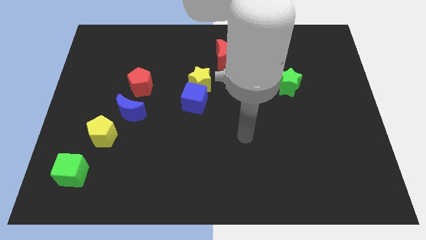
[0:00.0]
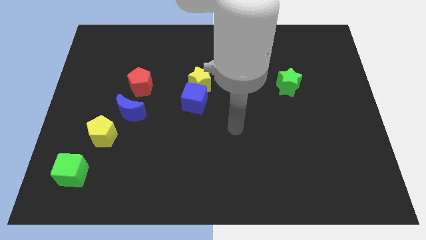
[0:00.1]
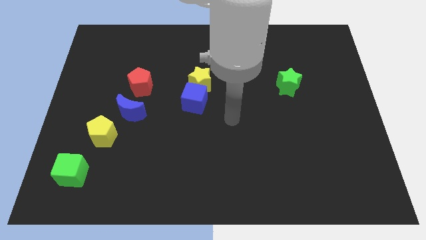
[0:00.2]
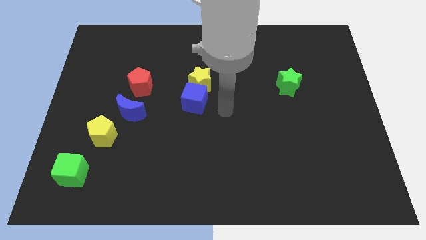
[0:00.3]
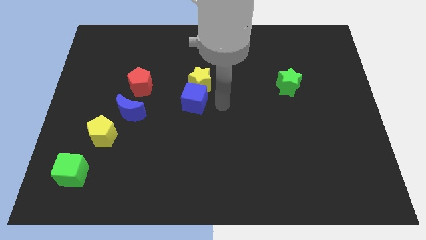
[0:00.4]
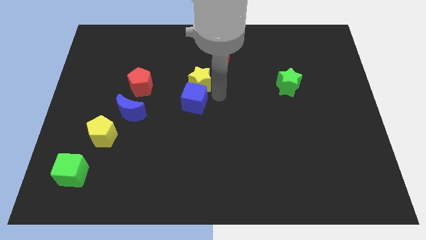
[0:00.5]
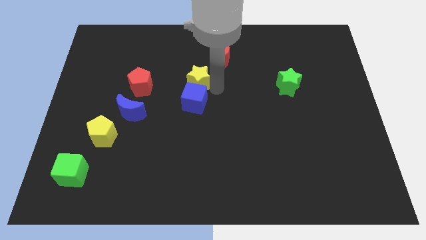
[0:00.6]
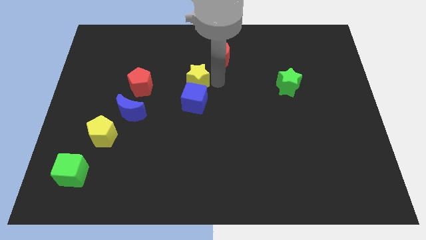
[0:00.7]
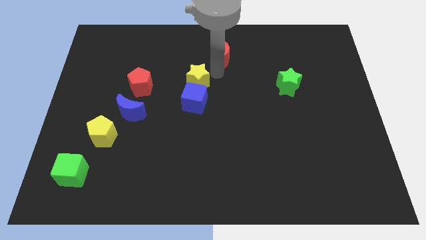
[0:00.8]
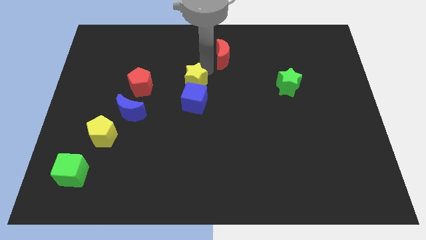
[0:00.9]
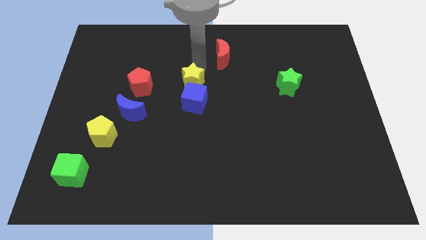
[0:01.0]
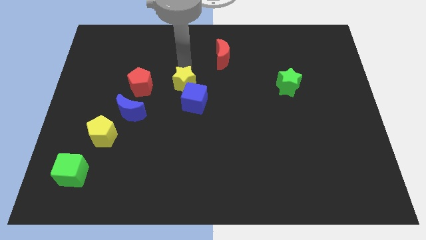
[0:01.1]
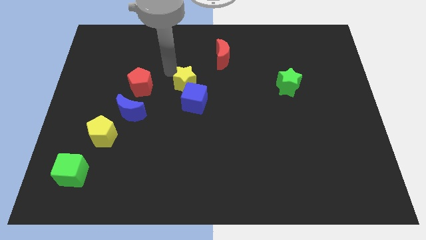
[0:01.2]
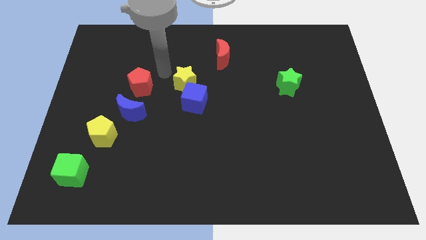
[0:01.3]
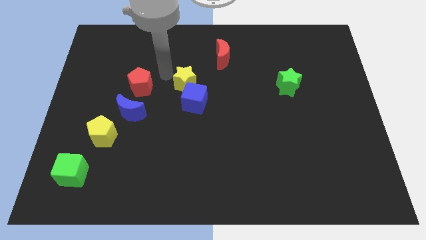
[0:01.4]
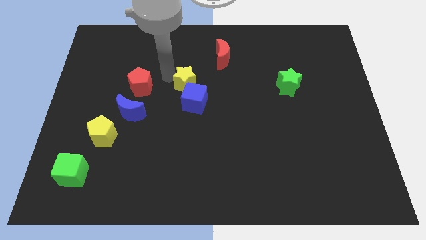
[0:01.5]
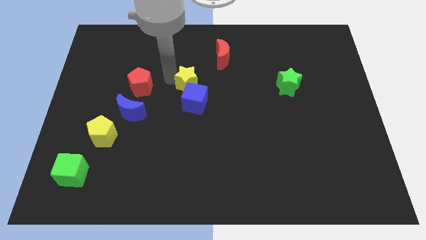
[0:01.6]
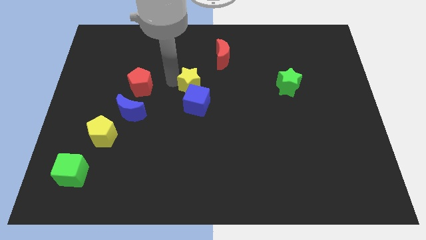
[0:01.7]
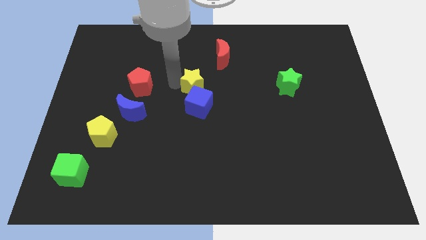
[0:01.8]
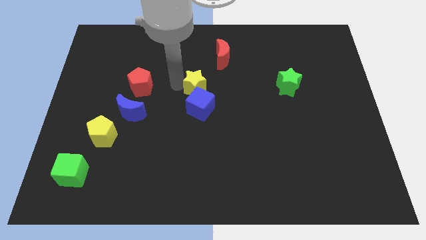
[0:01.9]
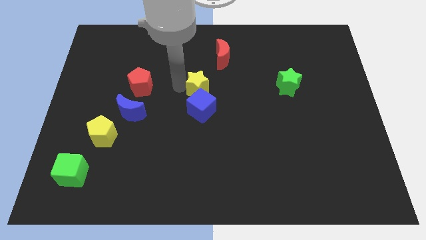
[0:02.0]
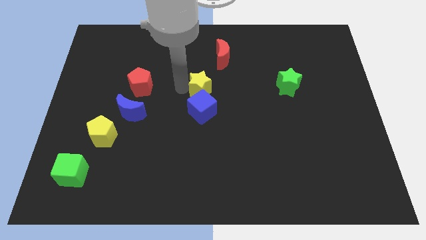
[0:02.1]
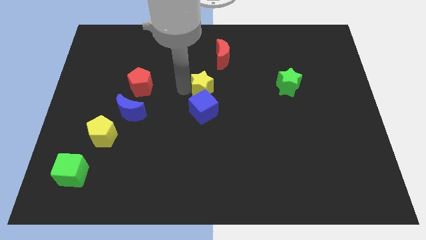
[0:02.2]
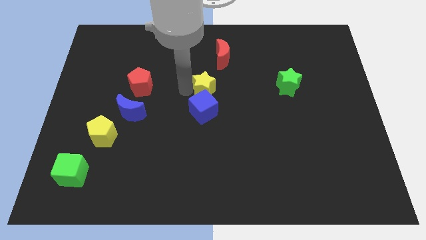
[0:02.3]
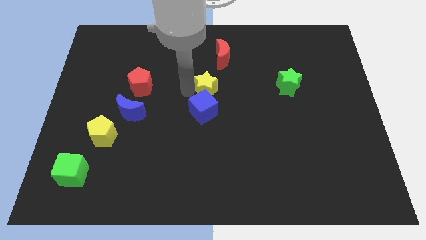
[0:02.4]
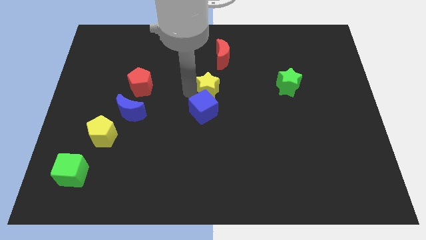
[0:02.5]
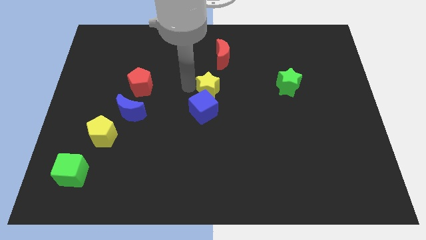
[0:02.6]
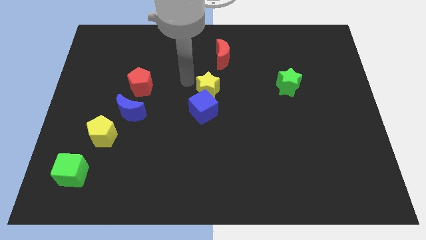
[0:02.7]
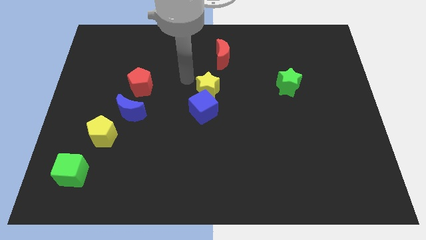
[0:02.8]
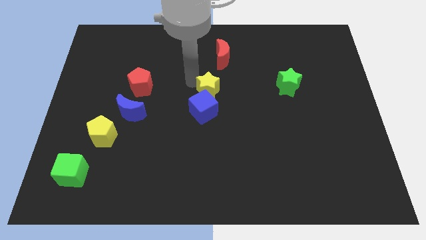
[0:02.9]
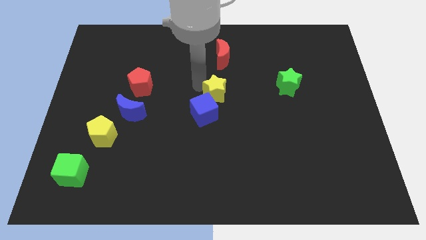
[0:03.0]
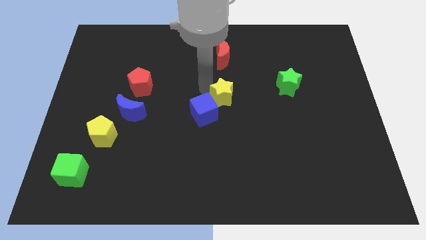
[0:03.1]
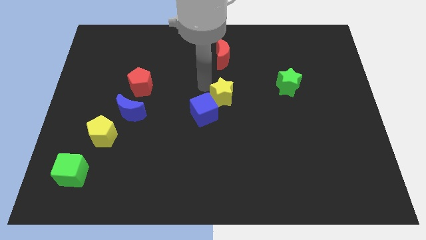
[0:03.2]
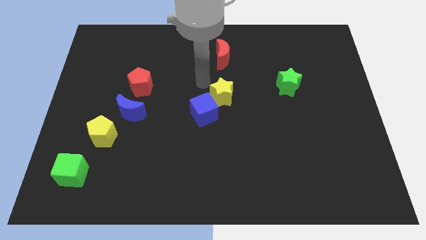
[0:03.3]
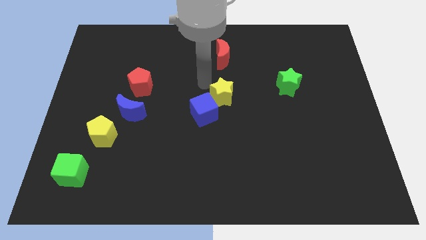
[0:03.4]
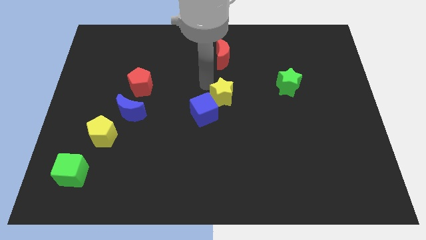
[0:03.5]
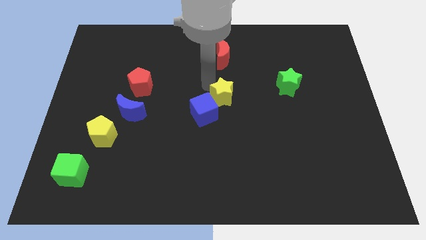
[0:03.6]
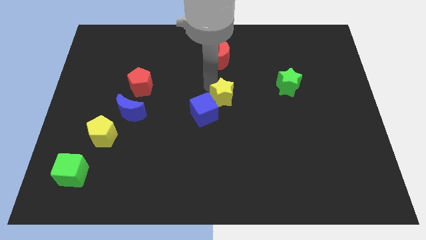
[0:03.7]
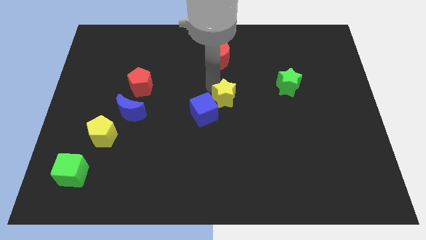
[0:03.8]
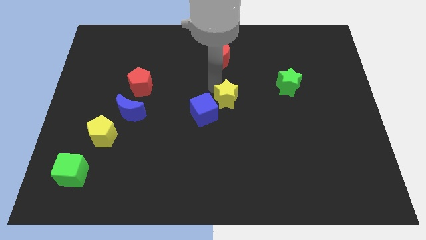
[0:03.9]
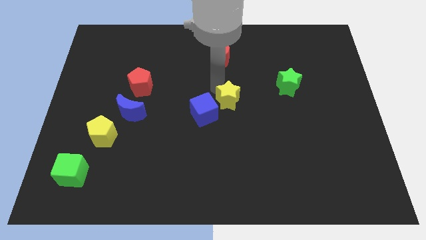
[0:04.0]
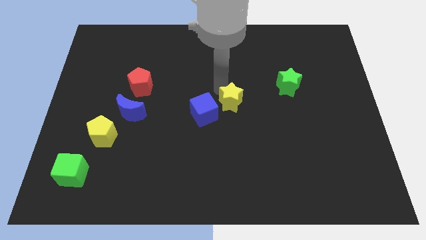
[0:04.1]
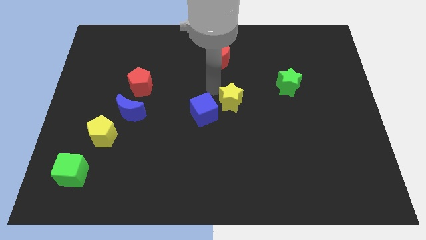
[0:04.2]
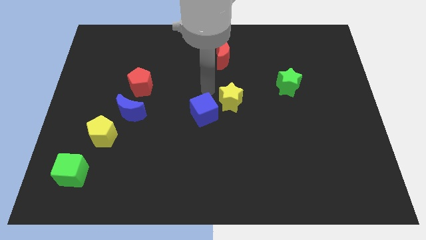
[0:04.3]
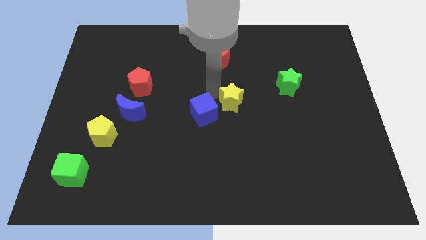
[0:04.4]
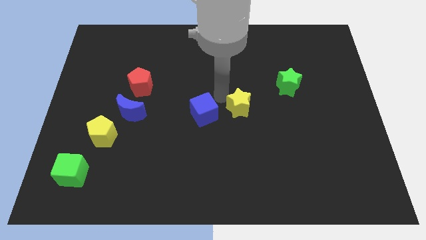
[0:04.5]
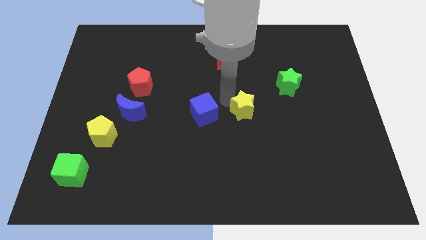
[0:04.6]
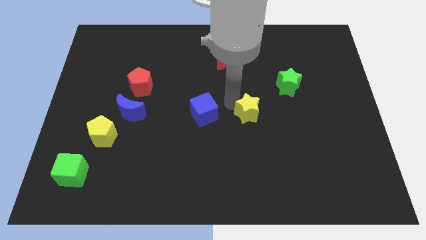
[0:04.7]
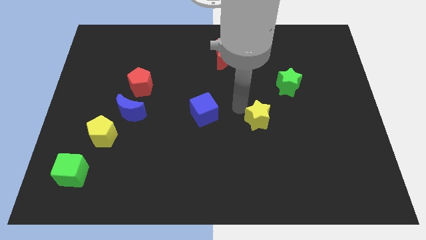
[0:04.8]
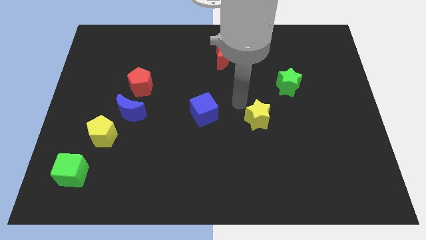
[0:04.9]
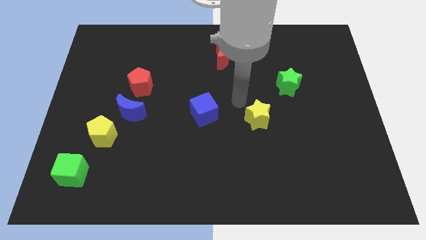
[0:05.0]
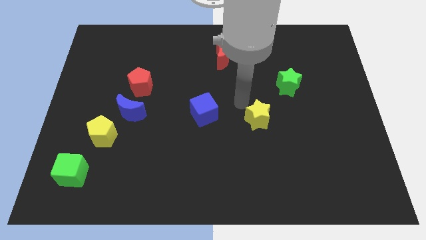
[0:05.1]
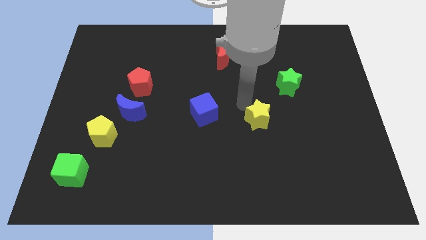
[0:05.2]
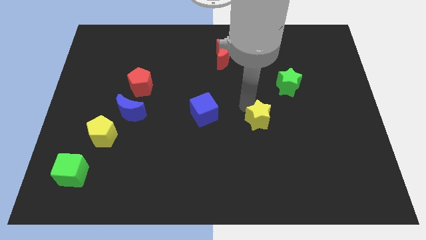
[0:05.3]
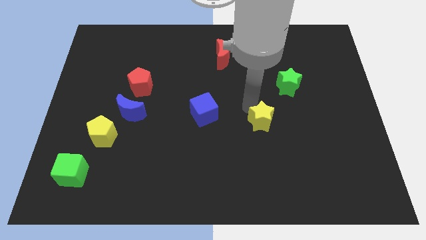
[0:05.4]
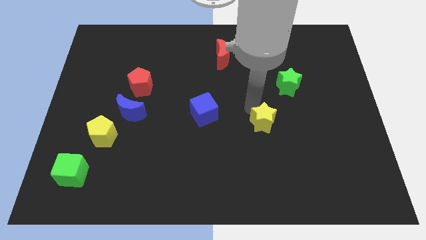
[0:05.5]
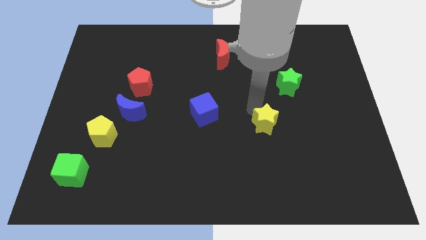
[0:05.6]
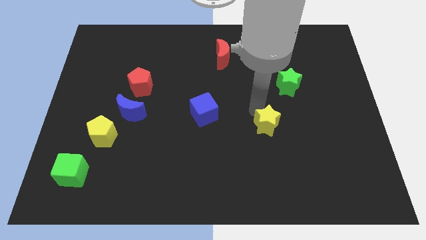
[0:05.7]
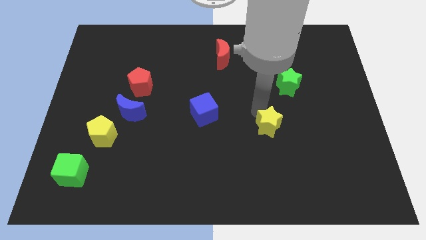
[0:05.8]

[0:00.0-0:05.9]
push the yellow star downwards and to the right diagonally

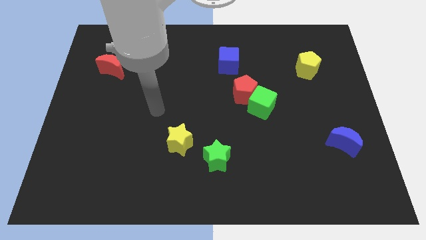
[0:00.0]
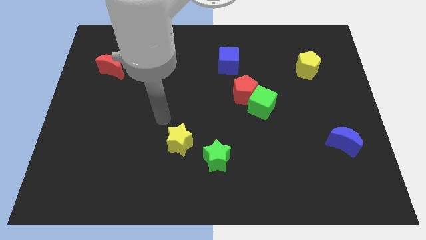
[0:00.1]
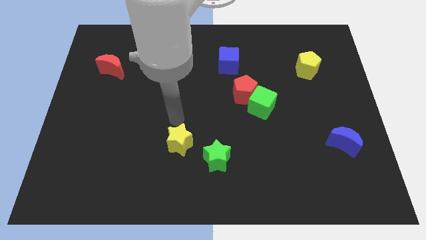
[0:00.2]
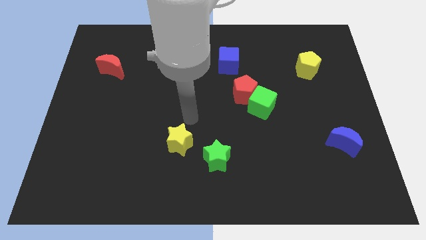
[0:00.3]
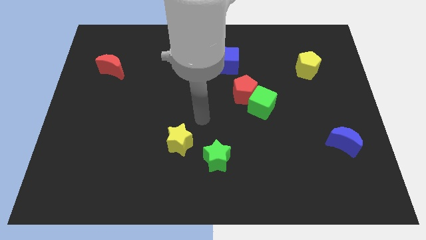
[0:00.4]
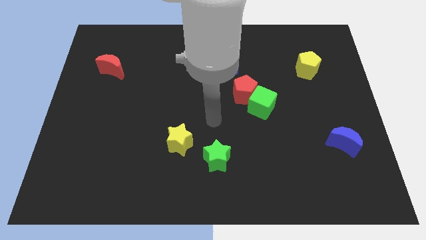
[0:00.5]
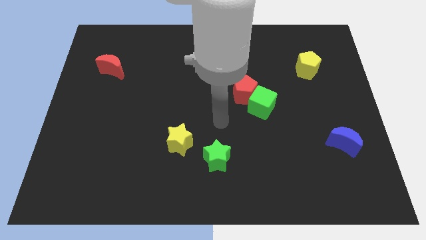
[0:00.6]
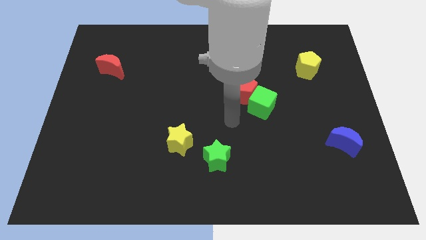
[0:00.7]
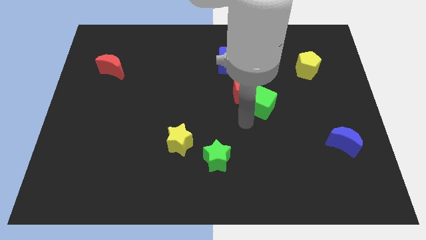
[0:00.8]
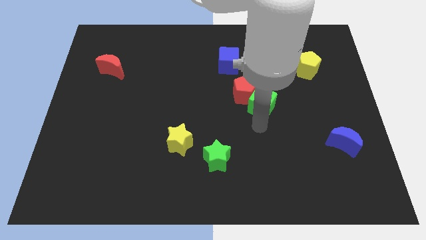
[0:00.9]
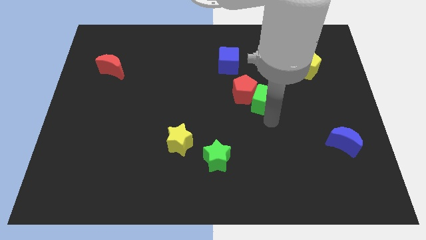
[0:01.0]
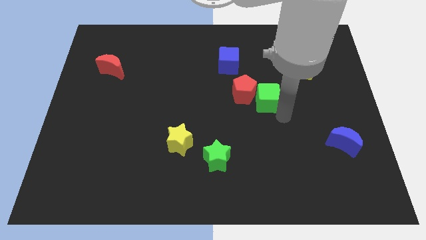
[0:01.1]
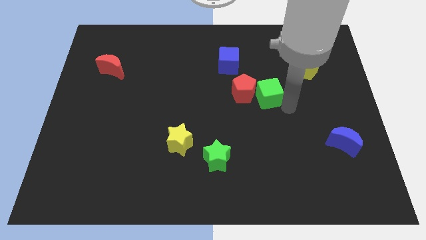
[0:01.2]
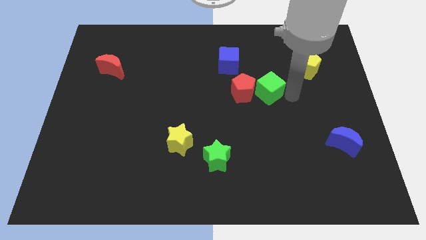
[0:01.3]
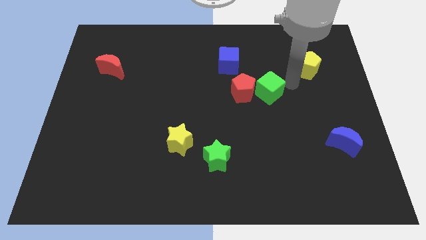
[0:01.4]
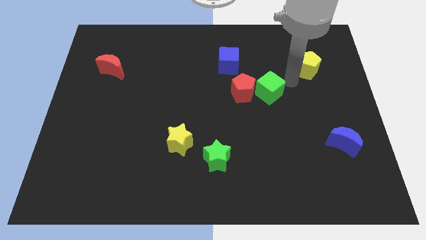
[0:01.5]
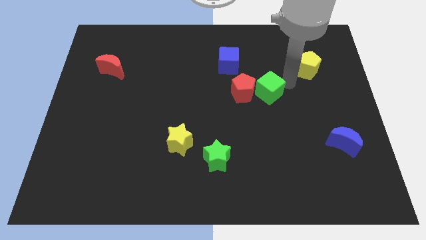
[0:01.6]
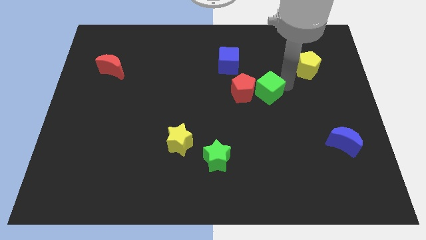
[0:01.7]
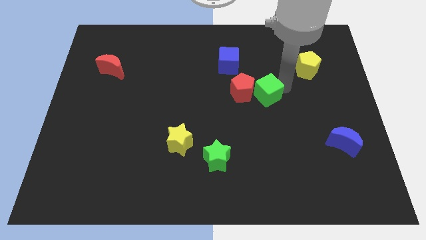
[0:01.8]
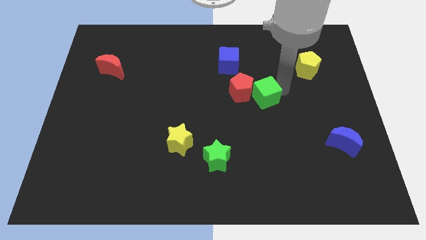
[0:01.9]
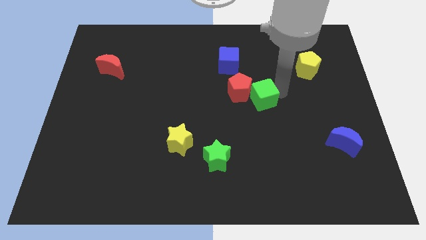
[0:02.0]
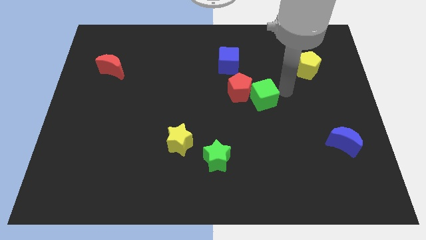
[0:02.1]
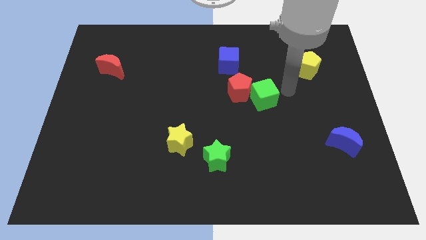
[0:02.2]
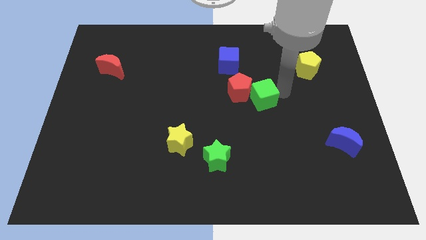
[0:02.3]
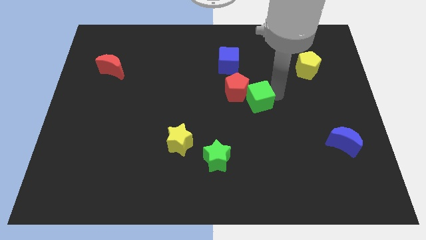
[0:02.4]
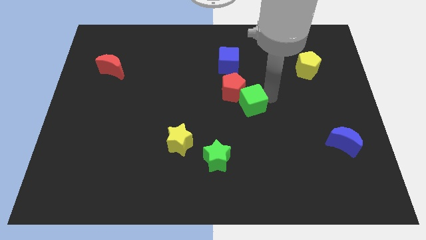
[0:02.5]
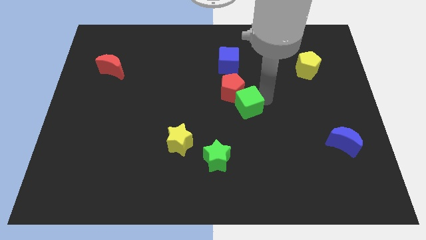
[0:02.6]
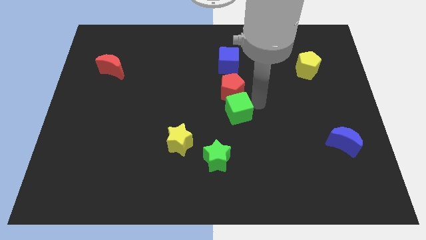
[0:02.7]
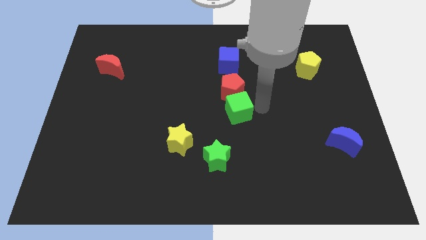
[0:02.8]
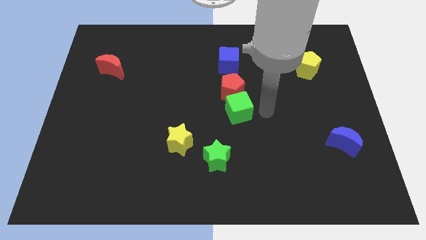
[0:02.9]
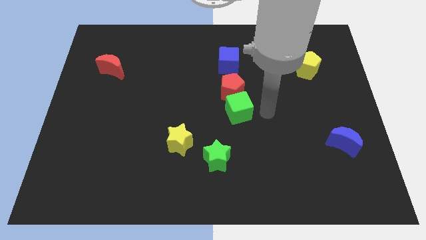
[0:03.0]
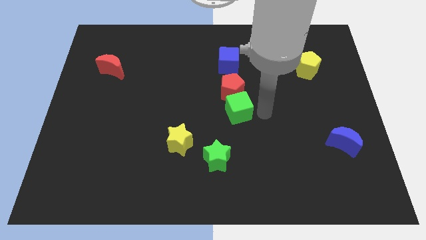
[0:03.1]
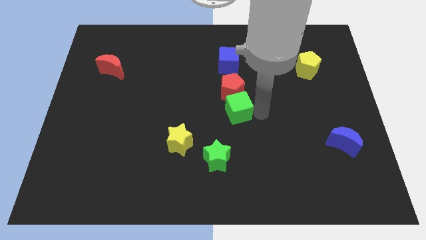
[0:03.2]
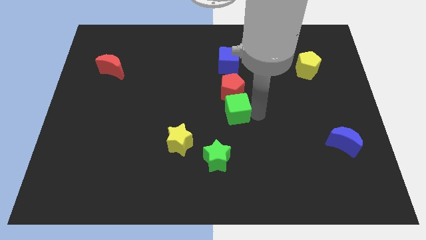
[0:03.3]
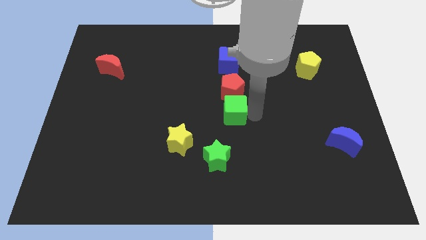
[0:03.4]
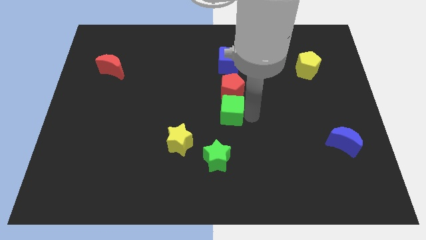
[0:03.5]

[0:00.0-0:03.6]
slide the green cube to the left slightly
